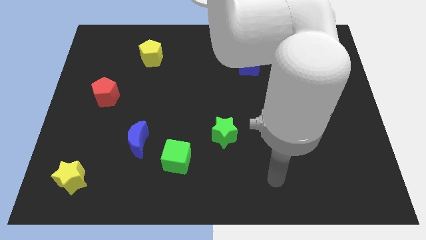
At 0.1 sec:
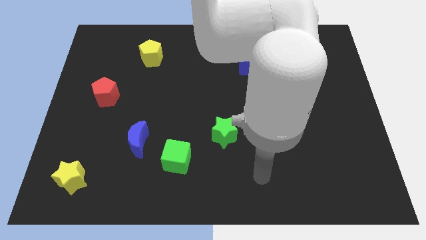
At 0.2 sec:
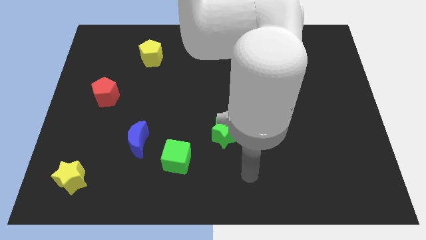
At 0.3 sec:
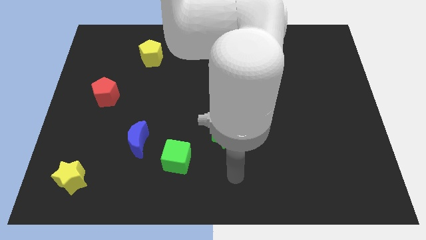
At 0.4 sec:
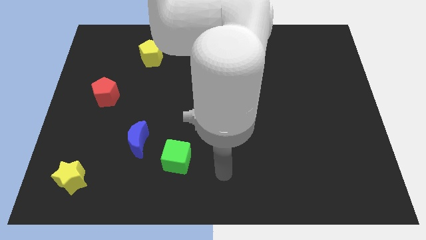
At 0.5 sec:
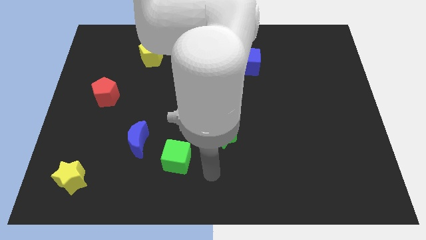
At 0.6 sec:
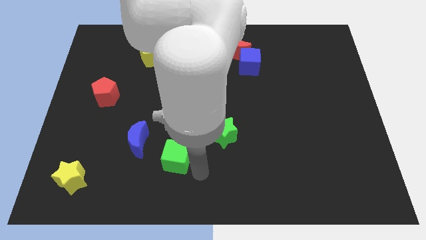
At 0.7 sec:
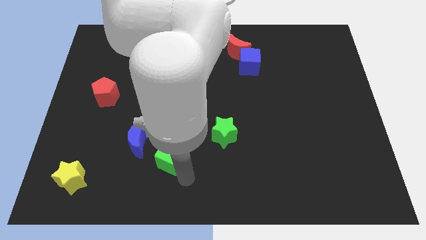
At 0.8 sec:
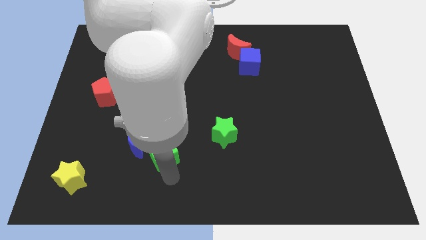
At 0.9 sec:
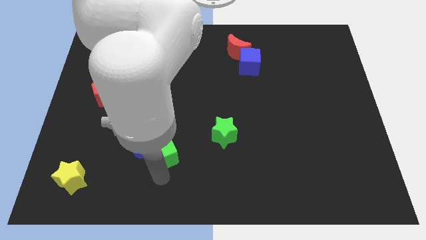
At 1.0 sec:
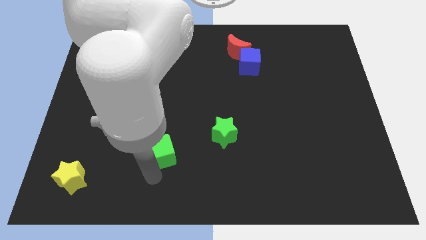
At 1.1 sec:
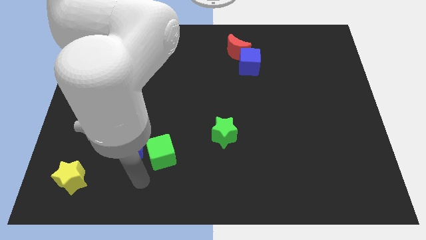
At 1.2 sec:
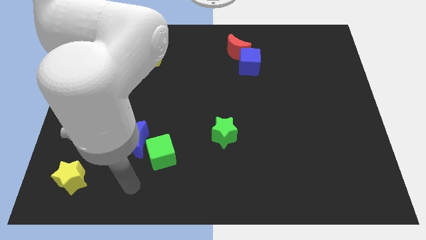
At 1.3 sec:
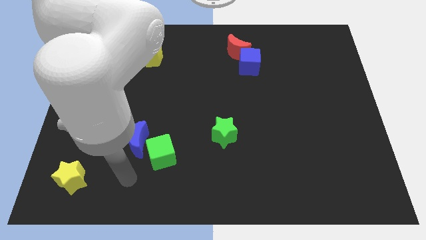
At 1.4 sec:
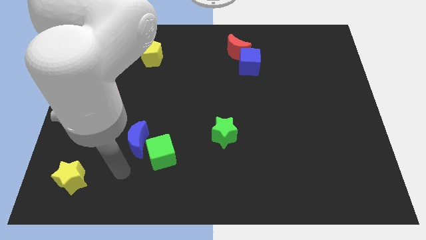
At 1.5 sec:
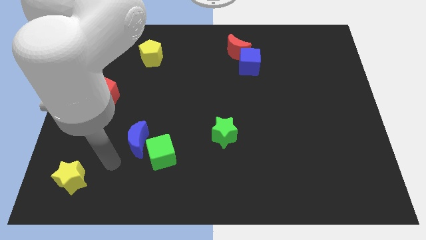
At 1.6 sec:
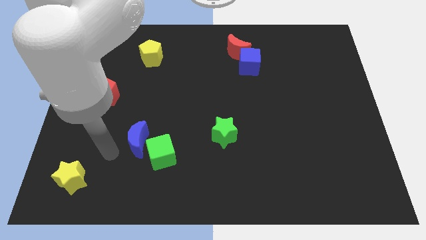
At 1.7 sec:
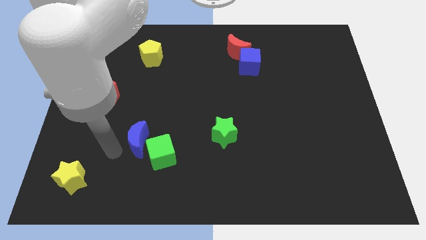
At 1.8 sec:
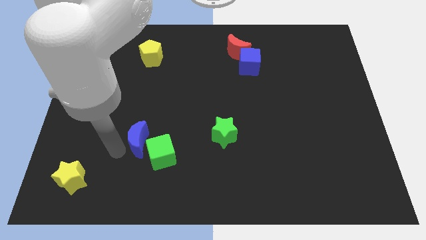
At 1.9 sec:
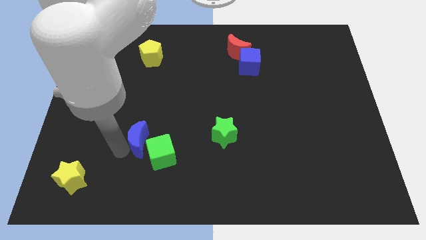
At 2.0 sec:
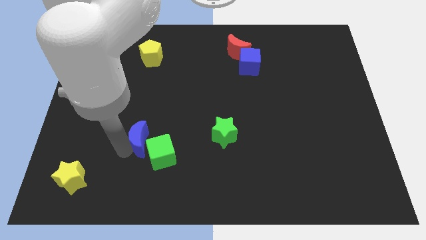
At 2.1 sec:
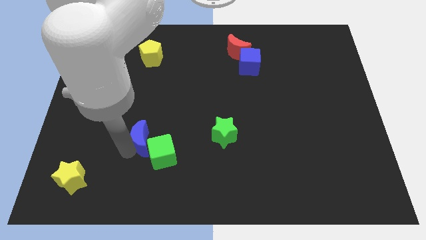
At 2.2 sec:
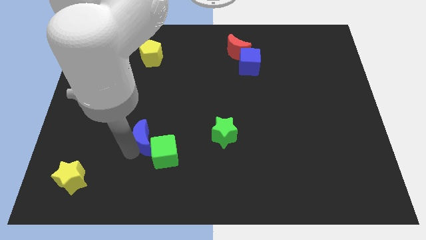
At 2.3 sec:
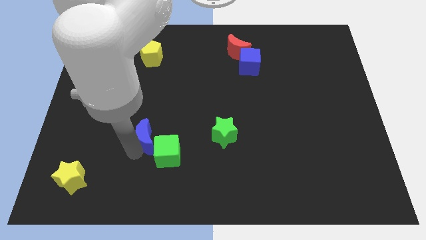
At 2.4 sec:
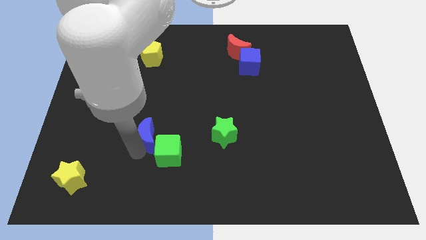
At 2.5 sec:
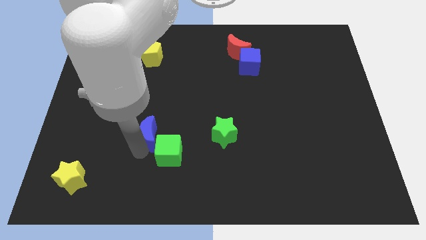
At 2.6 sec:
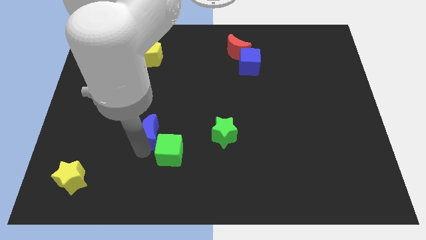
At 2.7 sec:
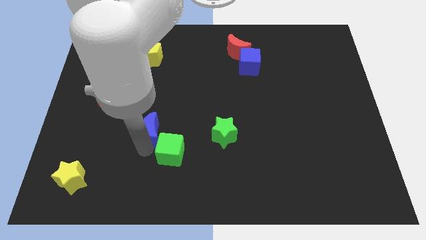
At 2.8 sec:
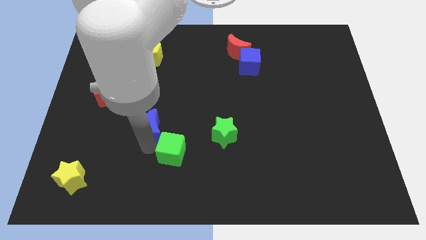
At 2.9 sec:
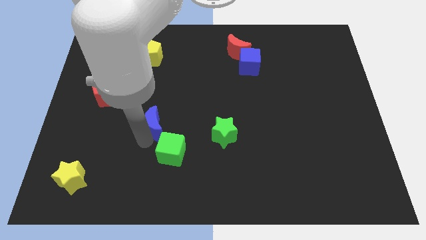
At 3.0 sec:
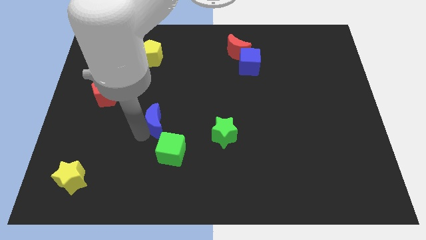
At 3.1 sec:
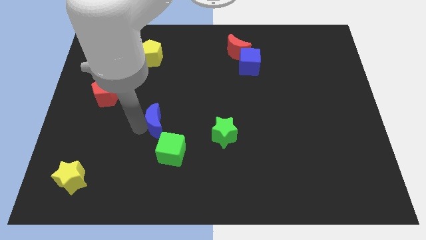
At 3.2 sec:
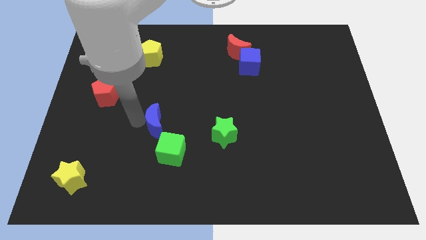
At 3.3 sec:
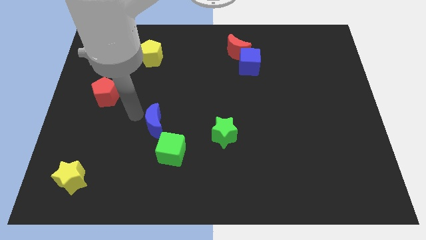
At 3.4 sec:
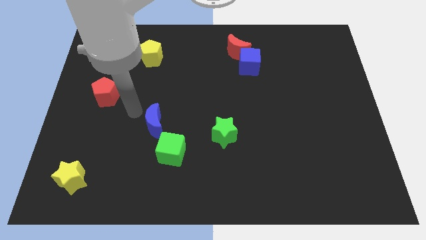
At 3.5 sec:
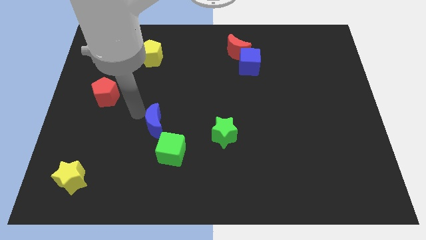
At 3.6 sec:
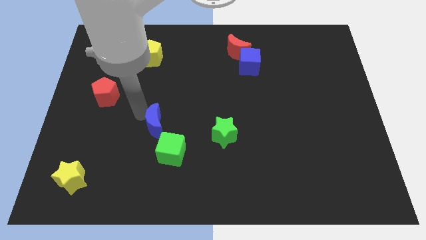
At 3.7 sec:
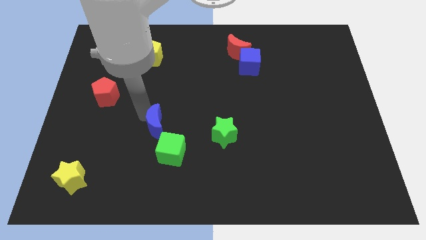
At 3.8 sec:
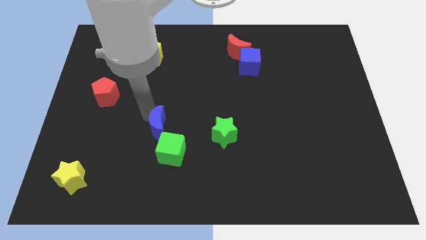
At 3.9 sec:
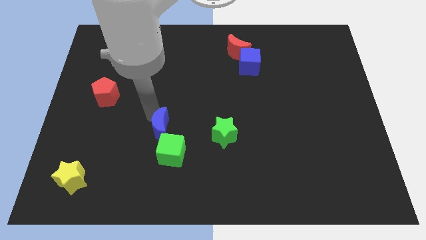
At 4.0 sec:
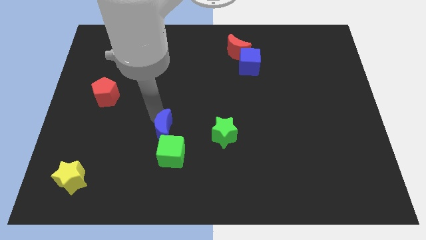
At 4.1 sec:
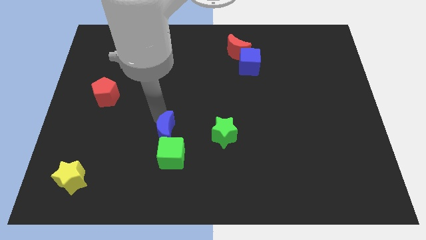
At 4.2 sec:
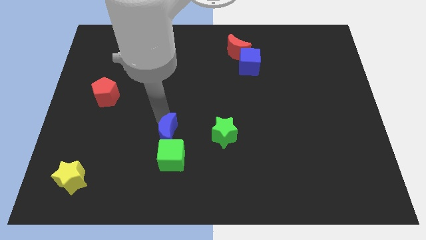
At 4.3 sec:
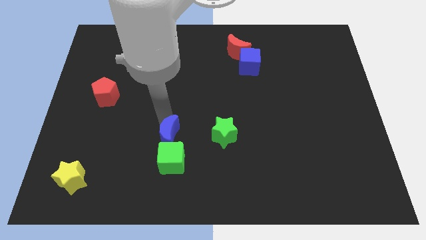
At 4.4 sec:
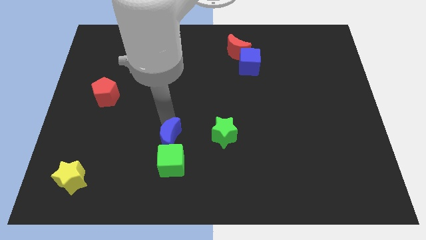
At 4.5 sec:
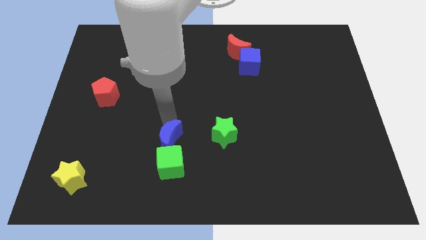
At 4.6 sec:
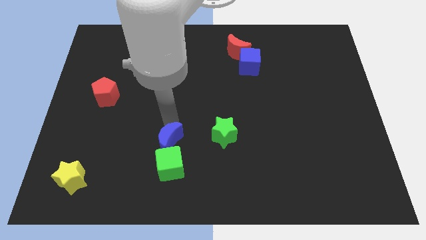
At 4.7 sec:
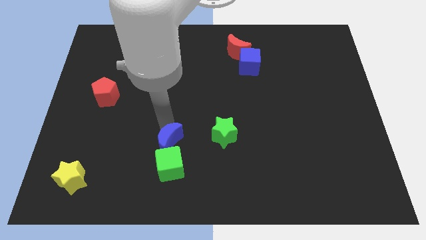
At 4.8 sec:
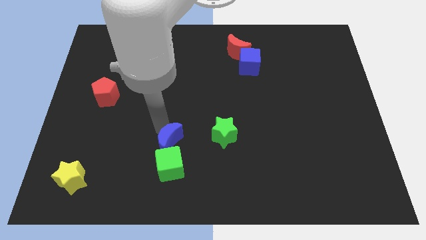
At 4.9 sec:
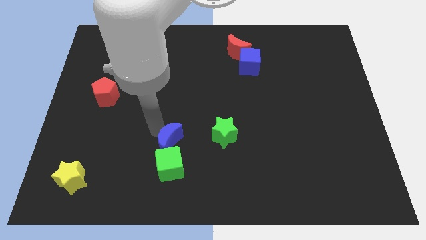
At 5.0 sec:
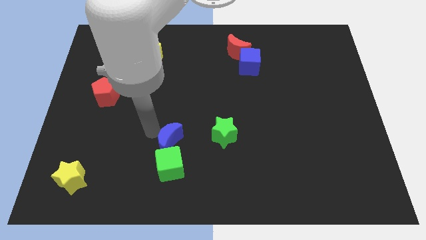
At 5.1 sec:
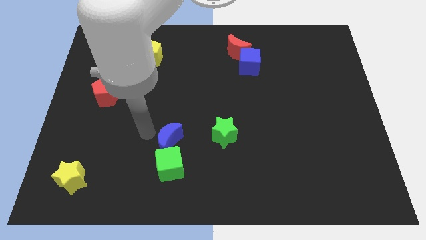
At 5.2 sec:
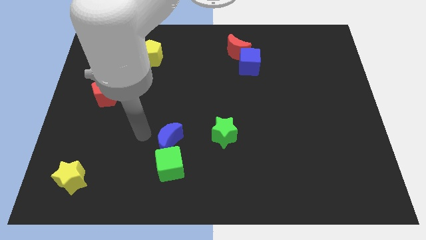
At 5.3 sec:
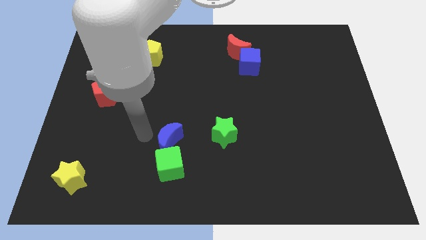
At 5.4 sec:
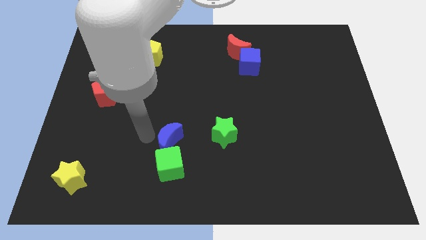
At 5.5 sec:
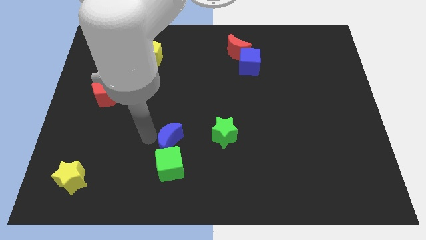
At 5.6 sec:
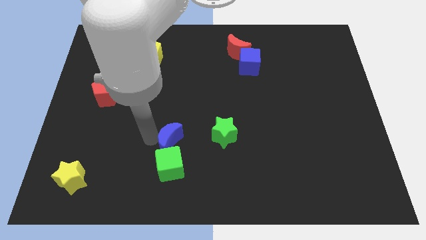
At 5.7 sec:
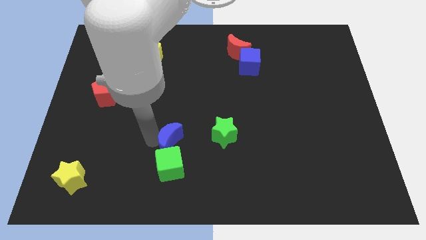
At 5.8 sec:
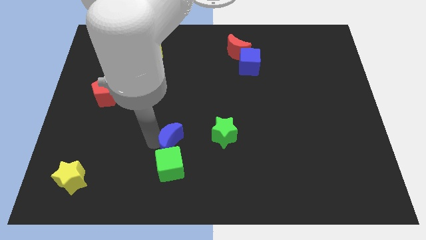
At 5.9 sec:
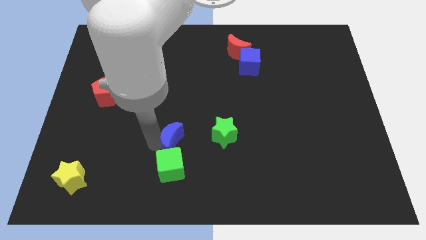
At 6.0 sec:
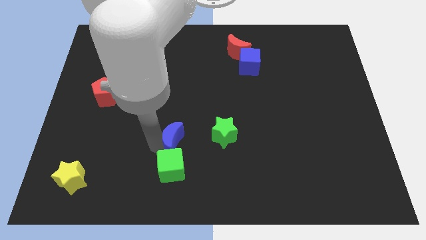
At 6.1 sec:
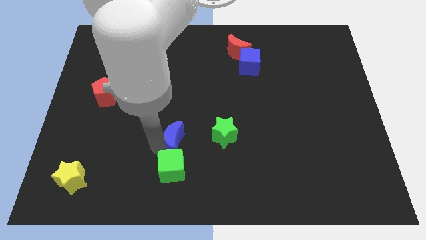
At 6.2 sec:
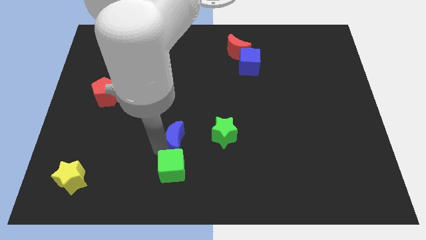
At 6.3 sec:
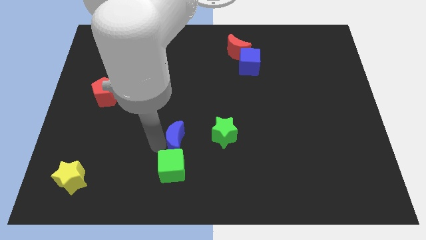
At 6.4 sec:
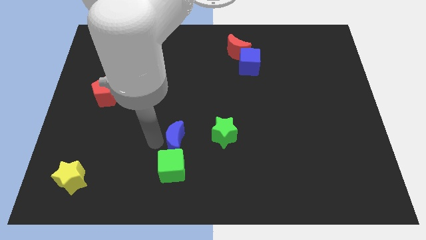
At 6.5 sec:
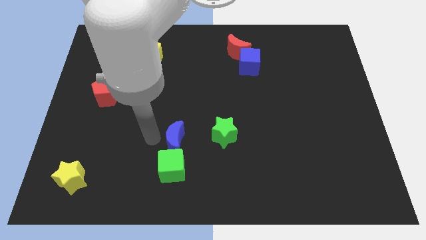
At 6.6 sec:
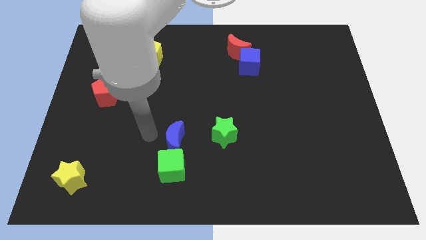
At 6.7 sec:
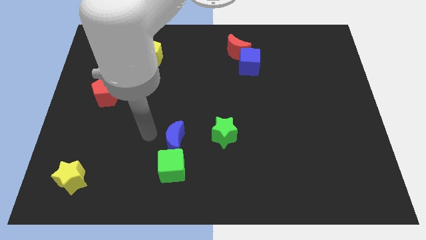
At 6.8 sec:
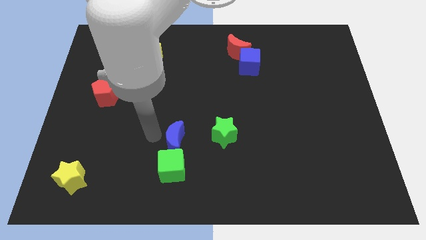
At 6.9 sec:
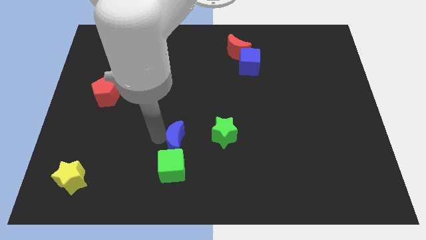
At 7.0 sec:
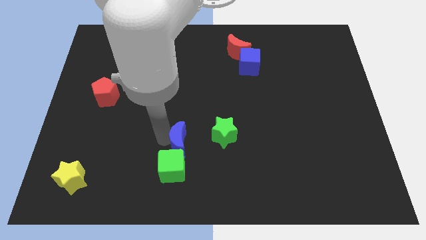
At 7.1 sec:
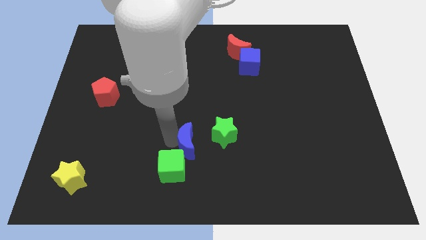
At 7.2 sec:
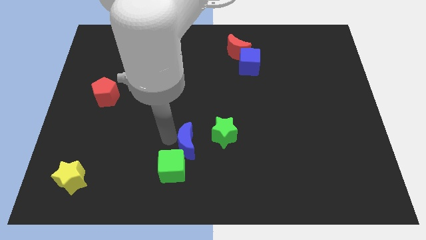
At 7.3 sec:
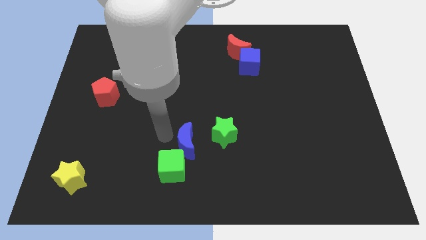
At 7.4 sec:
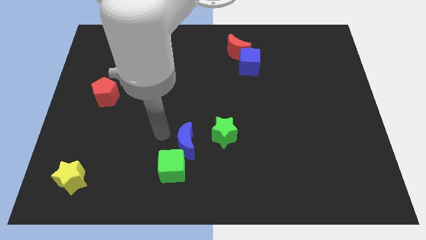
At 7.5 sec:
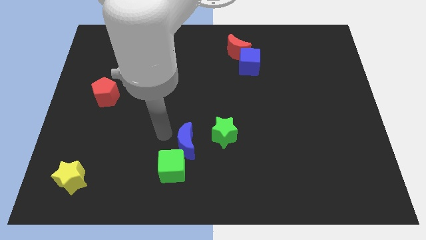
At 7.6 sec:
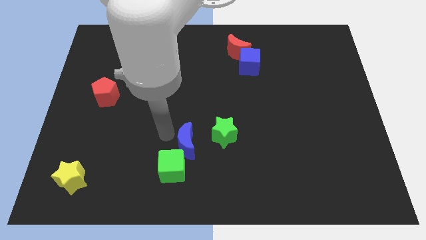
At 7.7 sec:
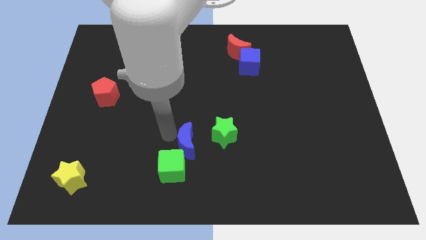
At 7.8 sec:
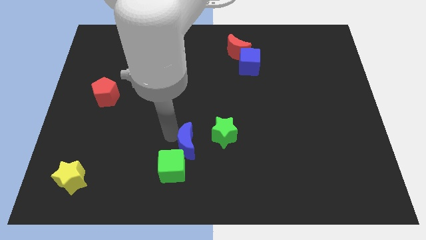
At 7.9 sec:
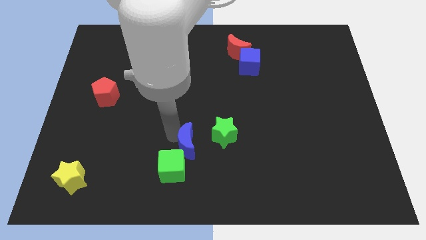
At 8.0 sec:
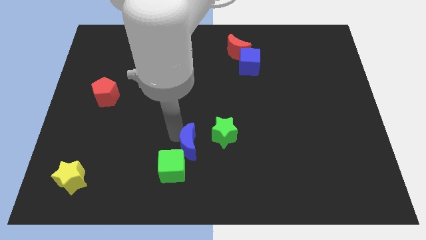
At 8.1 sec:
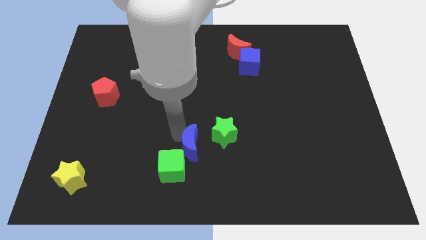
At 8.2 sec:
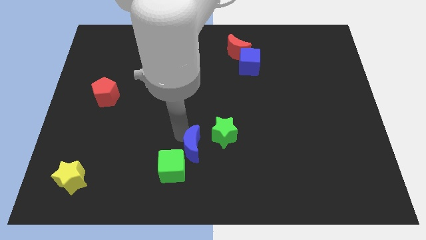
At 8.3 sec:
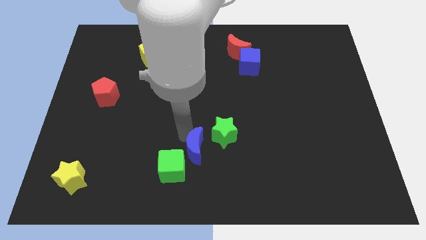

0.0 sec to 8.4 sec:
push the blue moon right of the green cube
